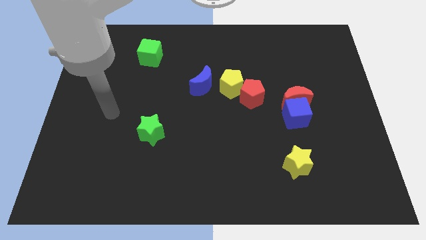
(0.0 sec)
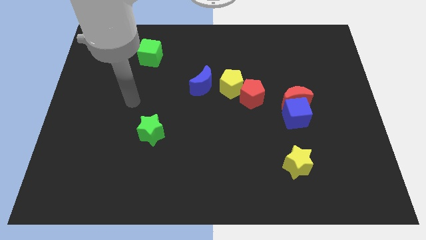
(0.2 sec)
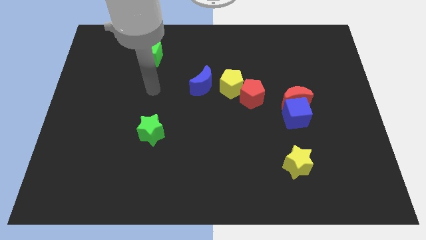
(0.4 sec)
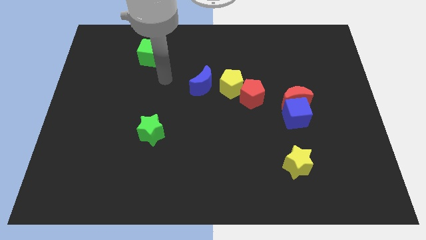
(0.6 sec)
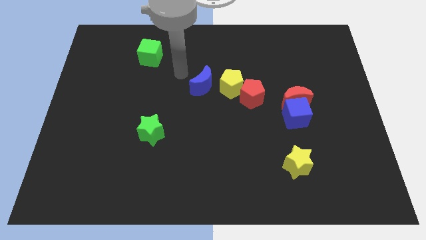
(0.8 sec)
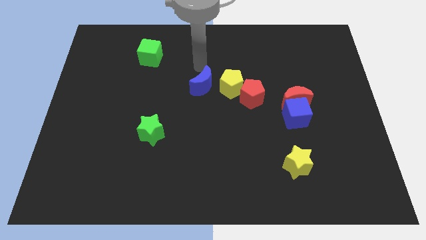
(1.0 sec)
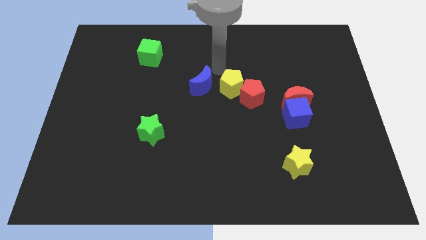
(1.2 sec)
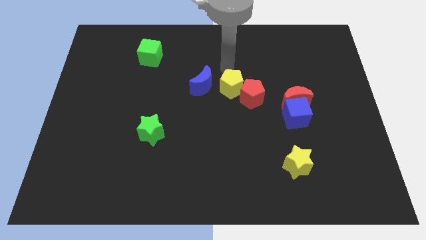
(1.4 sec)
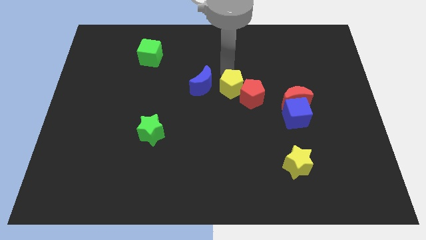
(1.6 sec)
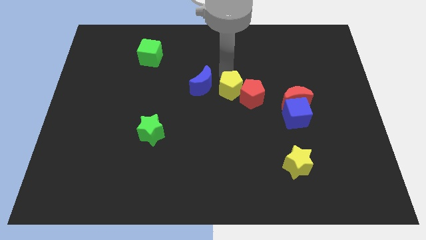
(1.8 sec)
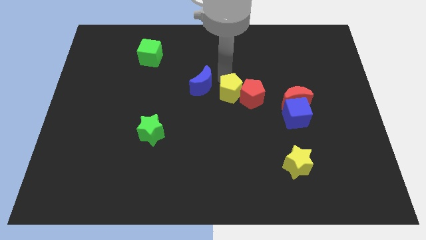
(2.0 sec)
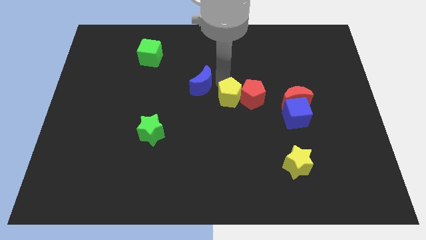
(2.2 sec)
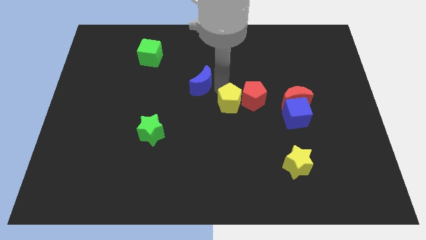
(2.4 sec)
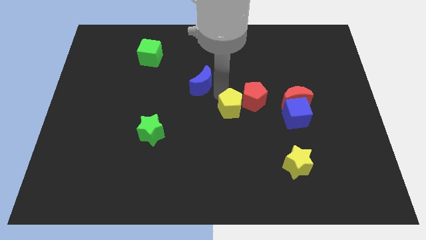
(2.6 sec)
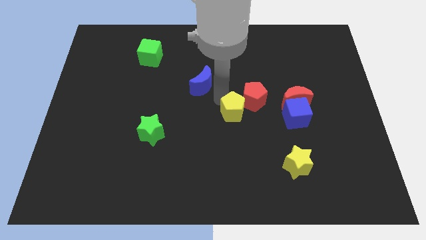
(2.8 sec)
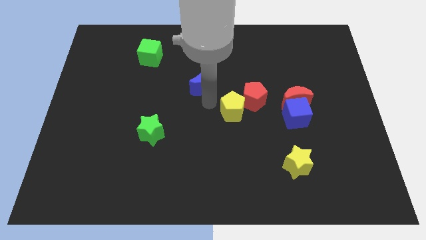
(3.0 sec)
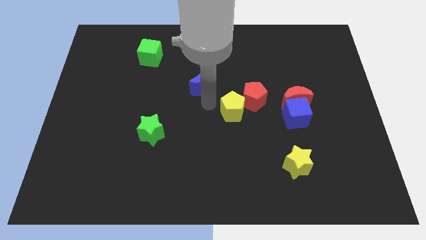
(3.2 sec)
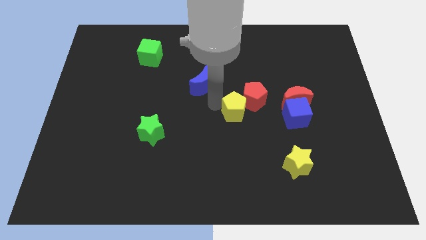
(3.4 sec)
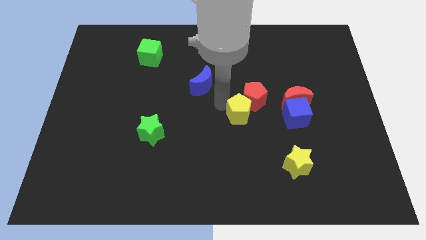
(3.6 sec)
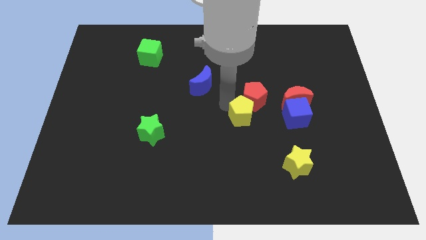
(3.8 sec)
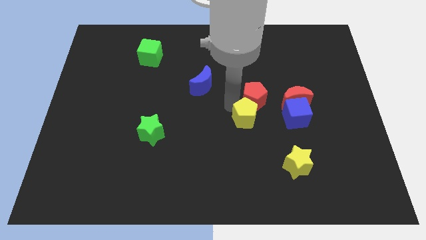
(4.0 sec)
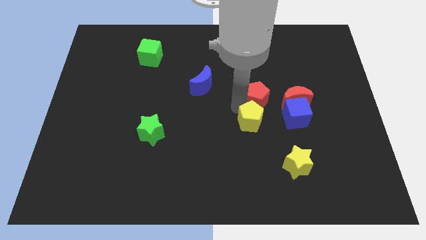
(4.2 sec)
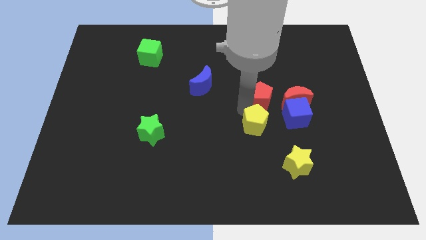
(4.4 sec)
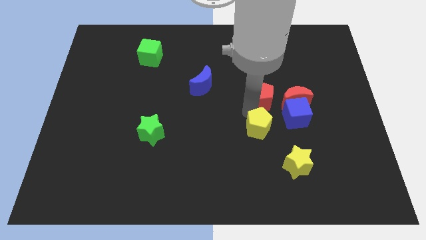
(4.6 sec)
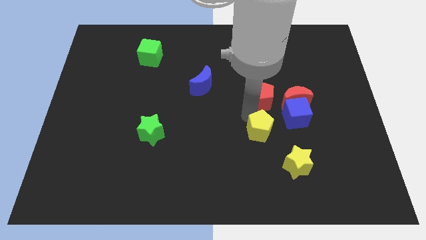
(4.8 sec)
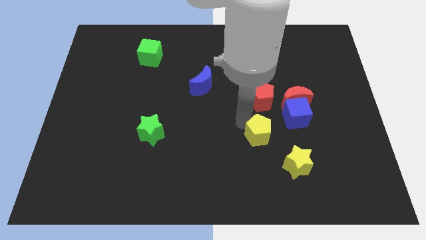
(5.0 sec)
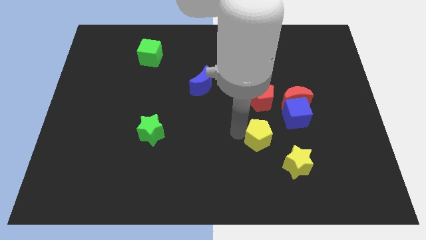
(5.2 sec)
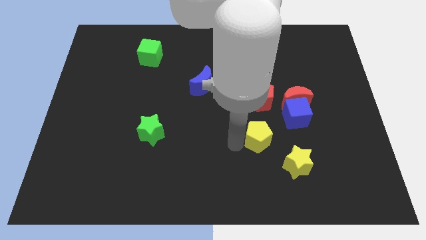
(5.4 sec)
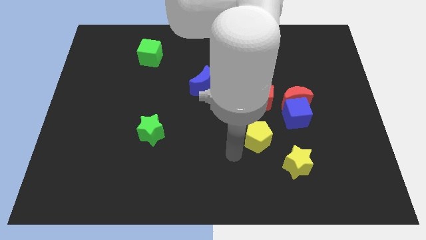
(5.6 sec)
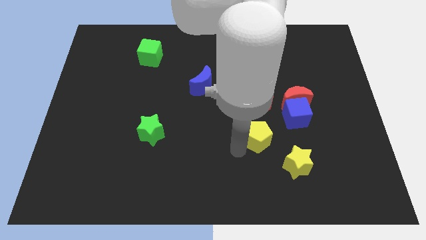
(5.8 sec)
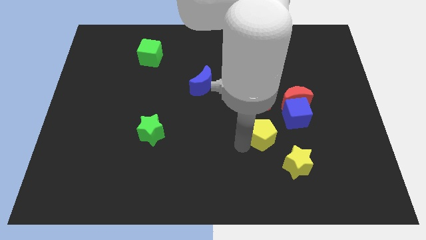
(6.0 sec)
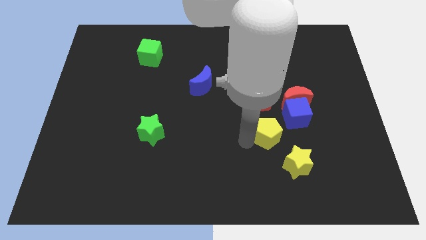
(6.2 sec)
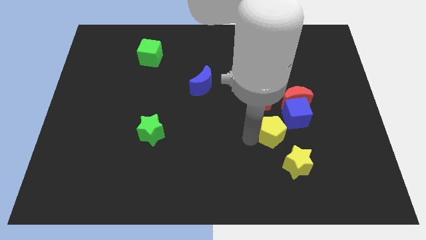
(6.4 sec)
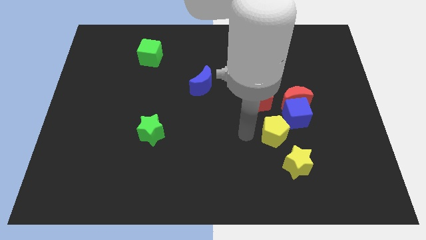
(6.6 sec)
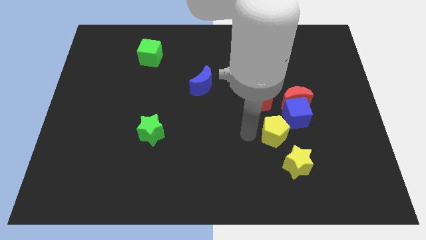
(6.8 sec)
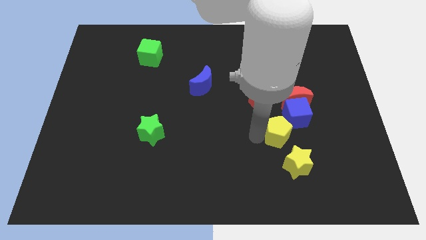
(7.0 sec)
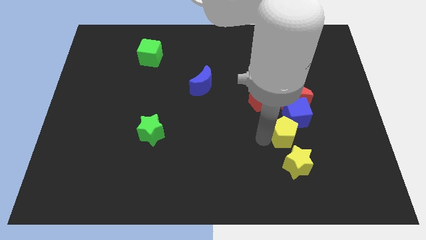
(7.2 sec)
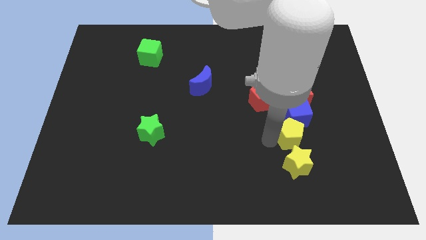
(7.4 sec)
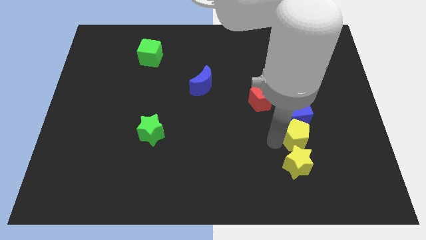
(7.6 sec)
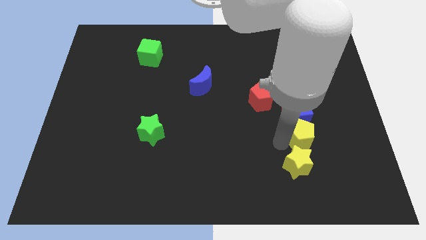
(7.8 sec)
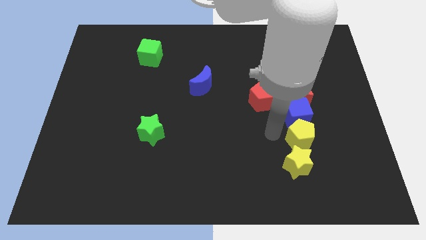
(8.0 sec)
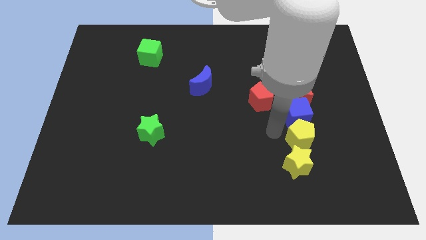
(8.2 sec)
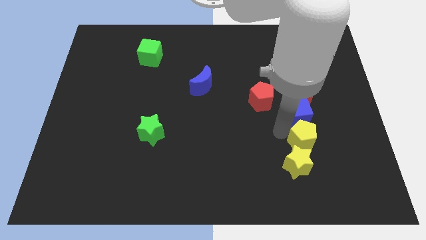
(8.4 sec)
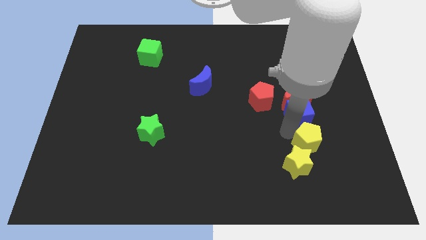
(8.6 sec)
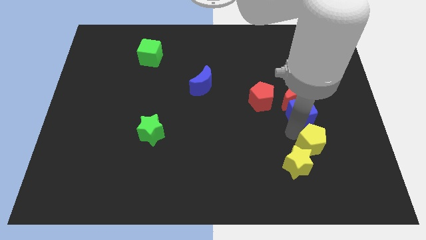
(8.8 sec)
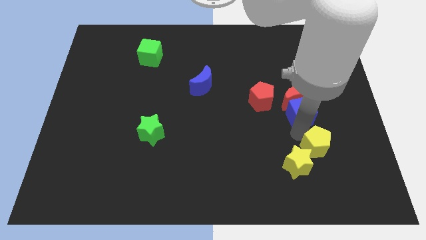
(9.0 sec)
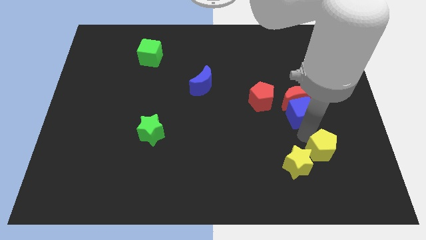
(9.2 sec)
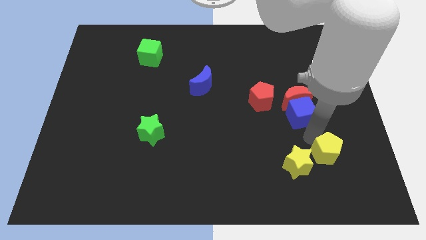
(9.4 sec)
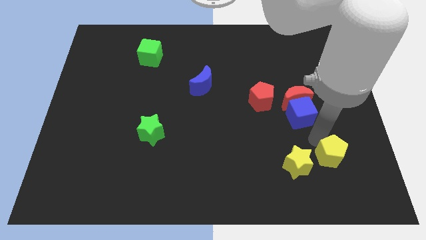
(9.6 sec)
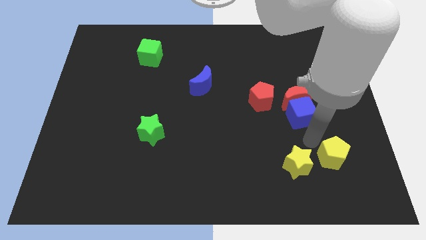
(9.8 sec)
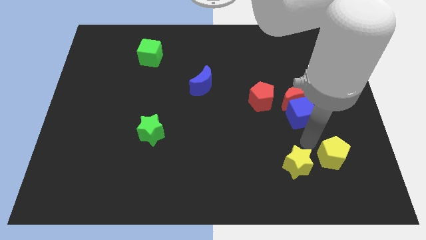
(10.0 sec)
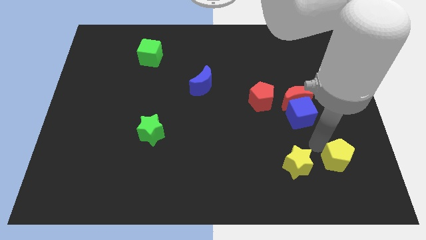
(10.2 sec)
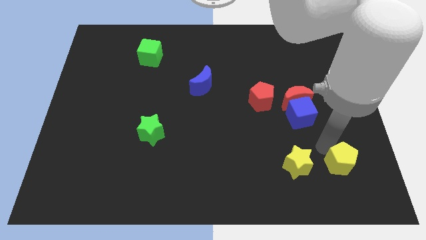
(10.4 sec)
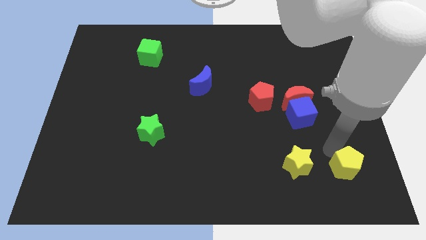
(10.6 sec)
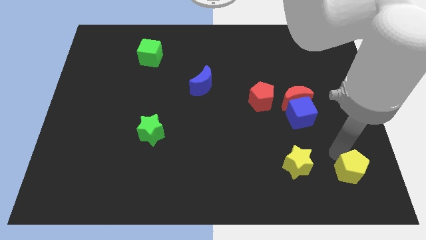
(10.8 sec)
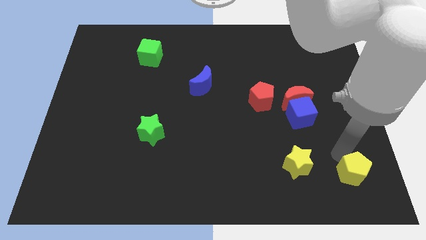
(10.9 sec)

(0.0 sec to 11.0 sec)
push the yellow pentagon to the bottom right corner
